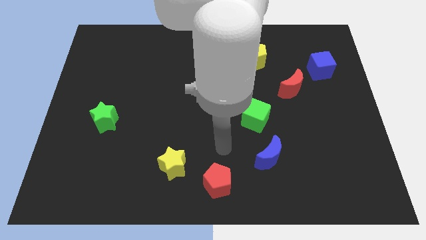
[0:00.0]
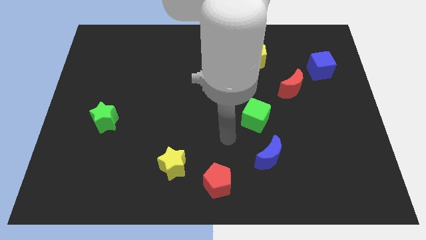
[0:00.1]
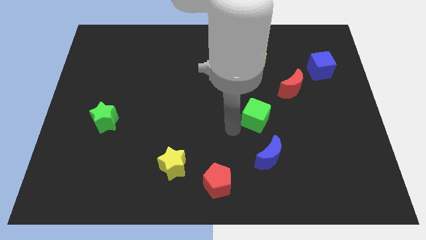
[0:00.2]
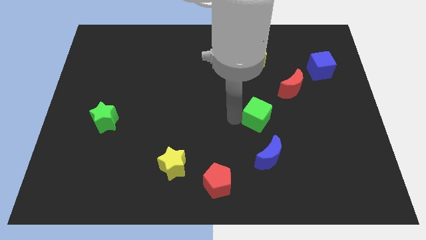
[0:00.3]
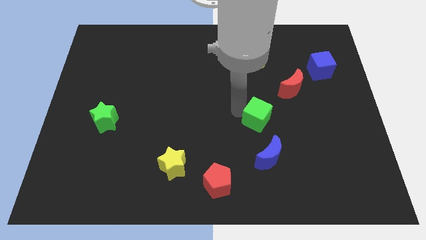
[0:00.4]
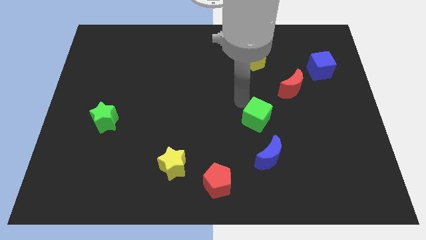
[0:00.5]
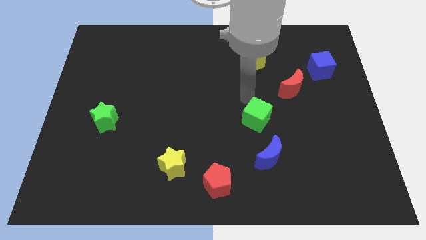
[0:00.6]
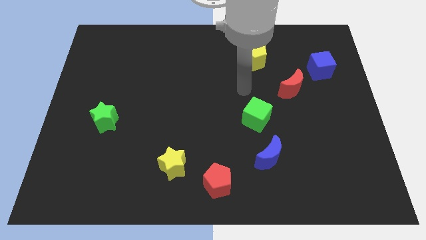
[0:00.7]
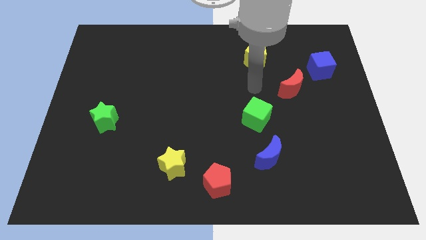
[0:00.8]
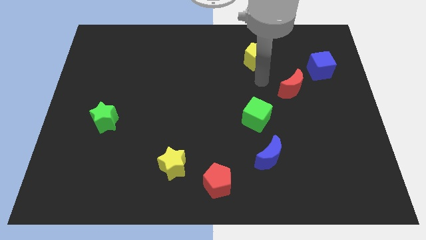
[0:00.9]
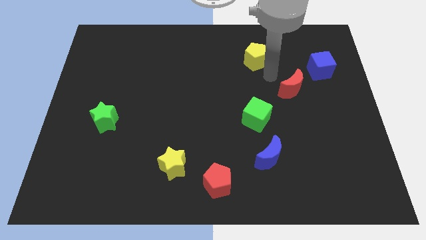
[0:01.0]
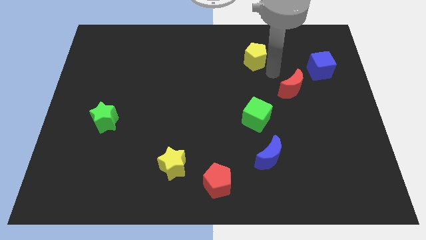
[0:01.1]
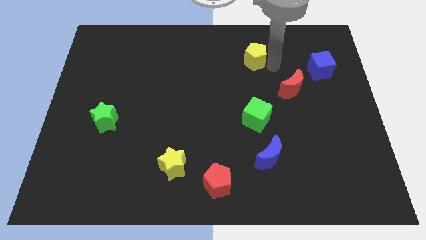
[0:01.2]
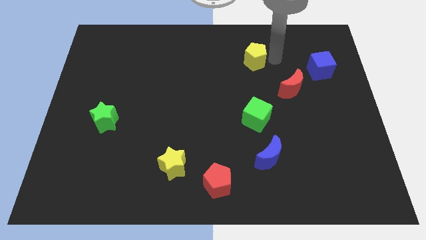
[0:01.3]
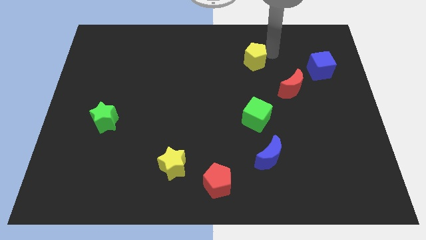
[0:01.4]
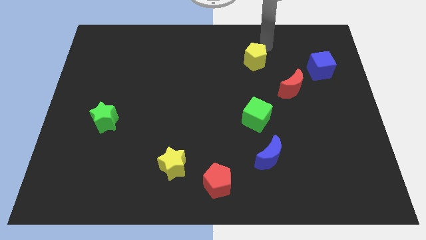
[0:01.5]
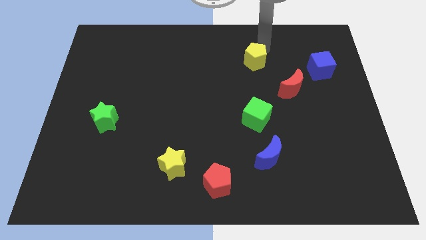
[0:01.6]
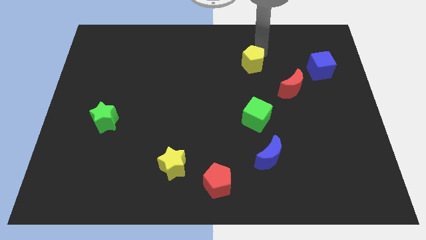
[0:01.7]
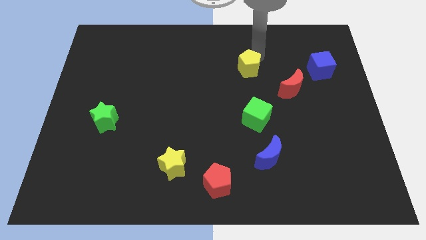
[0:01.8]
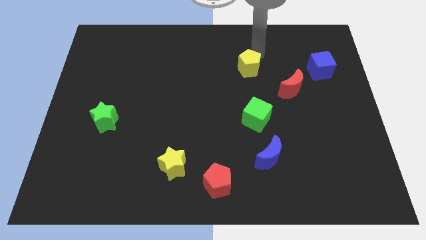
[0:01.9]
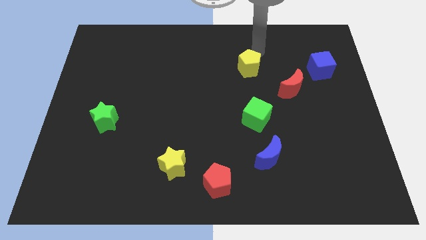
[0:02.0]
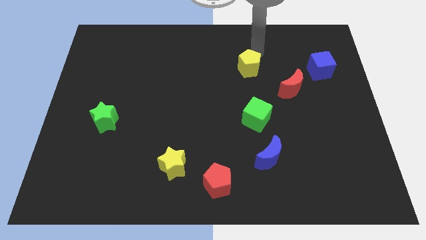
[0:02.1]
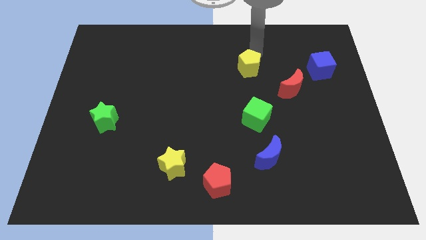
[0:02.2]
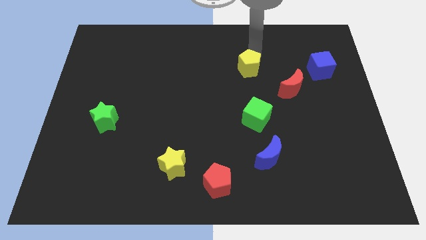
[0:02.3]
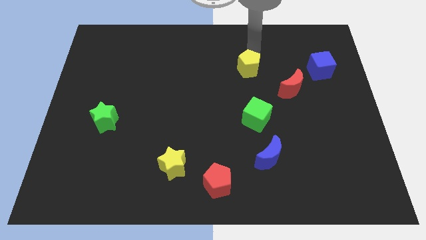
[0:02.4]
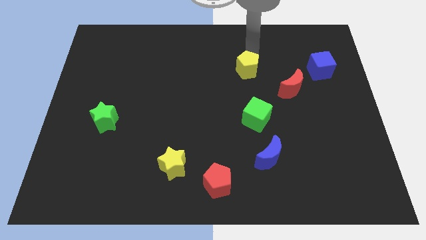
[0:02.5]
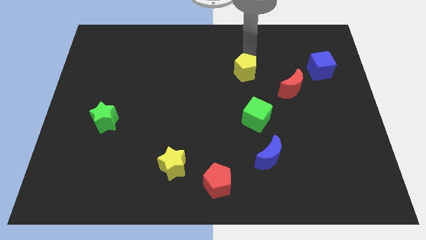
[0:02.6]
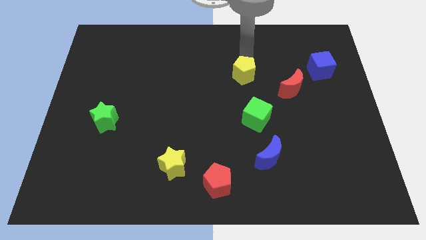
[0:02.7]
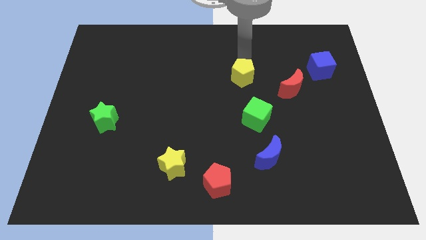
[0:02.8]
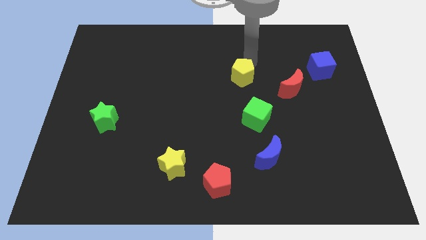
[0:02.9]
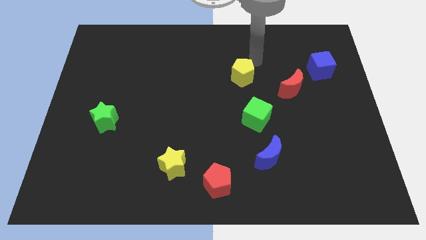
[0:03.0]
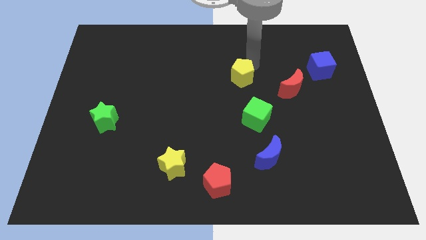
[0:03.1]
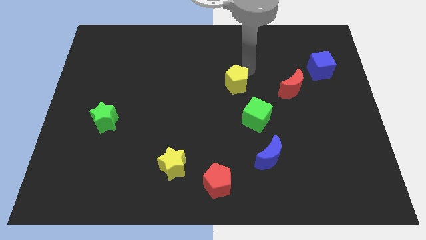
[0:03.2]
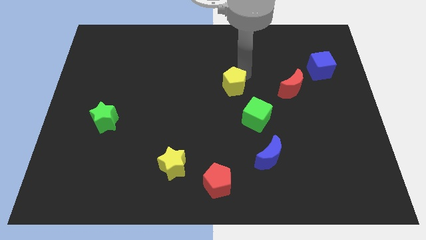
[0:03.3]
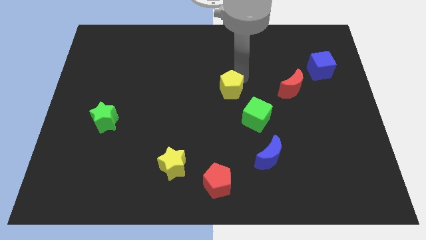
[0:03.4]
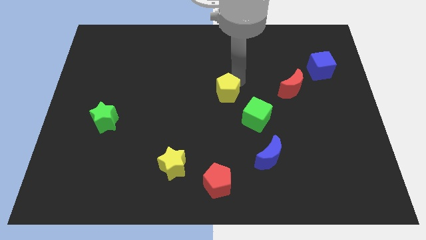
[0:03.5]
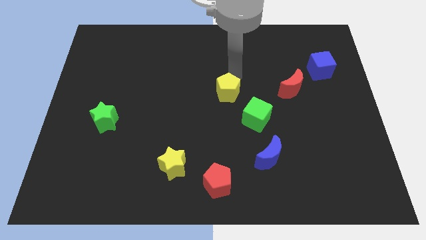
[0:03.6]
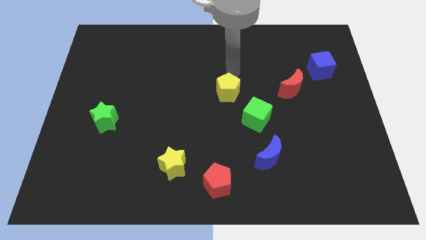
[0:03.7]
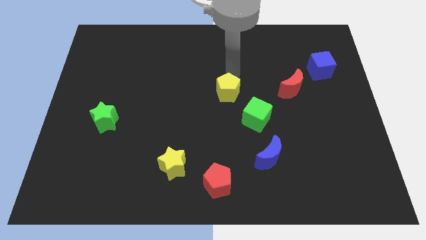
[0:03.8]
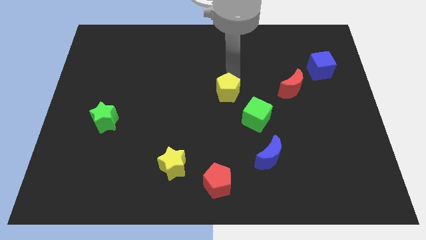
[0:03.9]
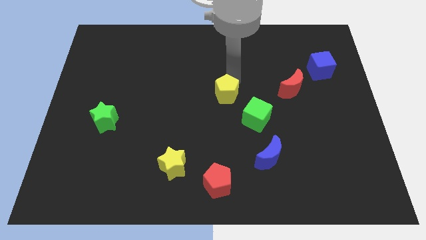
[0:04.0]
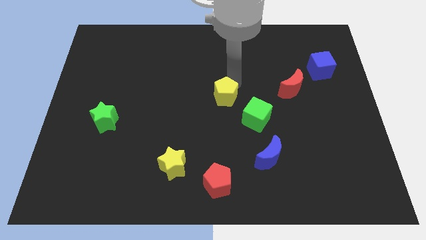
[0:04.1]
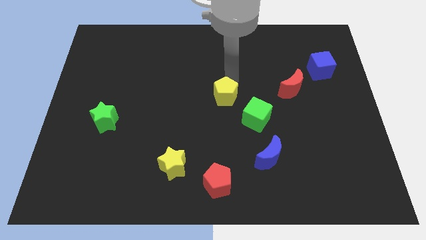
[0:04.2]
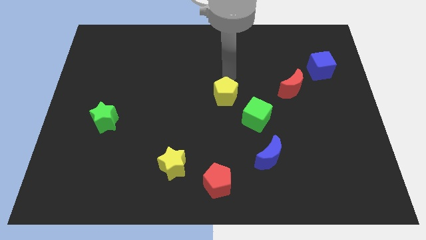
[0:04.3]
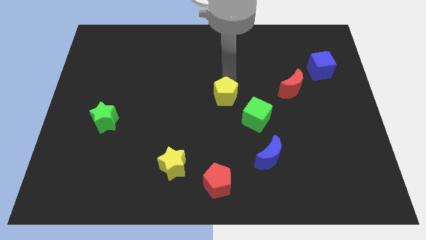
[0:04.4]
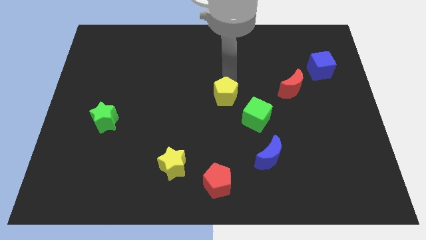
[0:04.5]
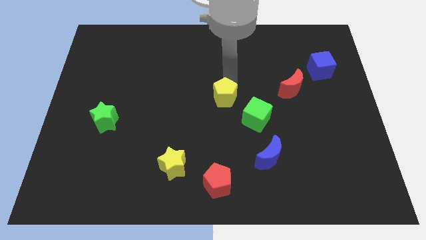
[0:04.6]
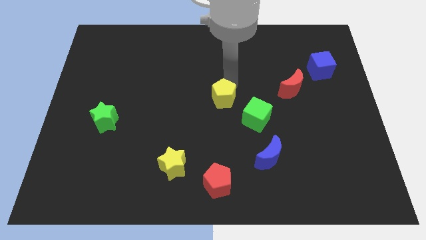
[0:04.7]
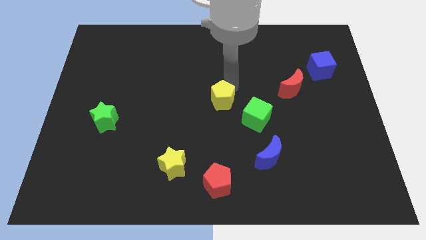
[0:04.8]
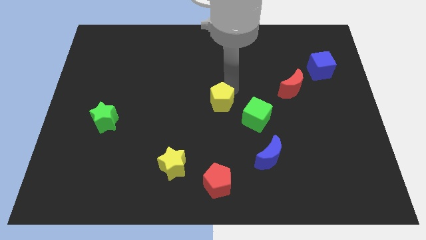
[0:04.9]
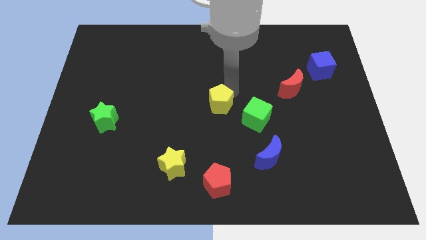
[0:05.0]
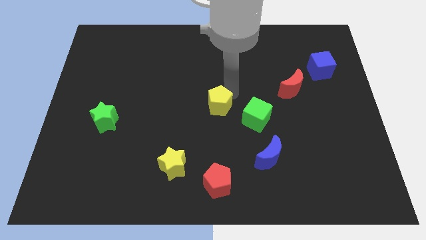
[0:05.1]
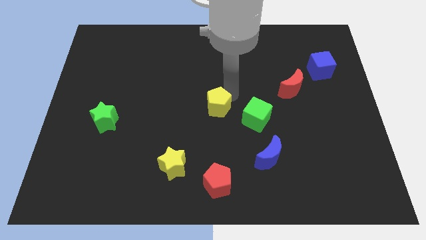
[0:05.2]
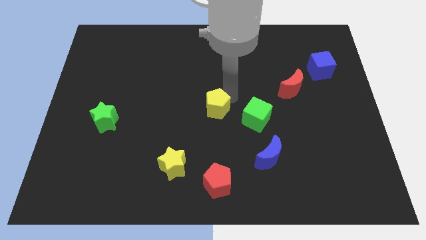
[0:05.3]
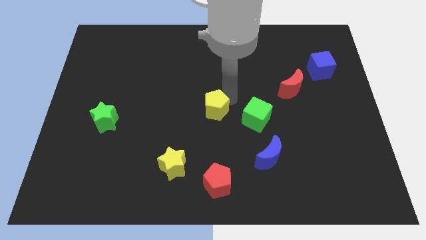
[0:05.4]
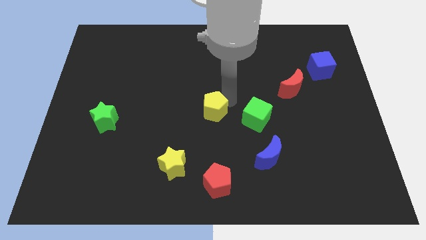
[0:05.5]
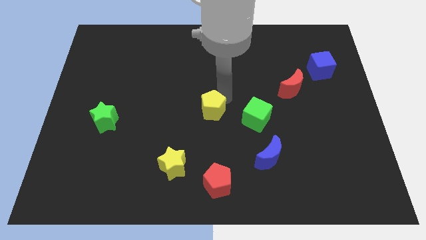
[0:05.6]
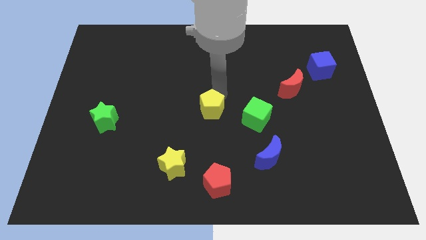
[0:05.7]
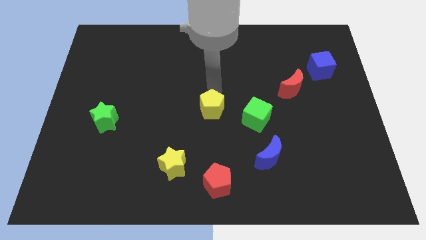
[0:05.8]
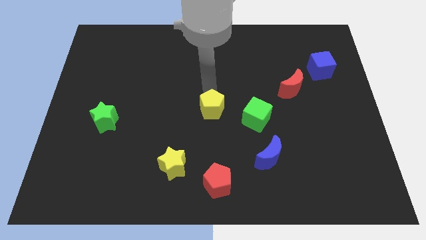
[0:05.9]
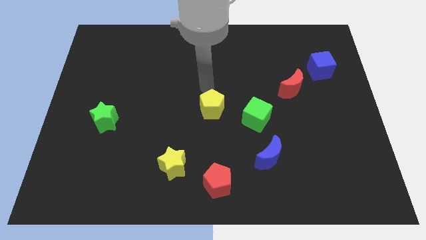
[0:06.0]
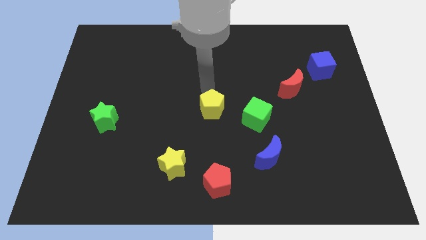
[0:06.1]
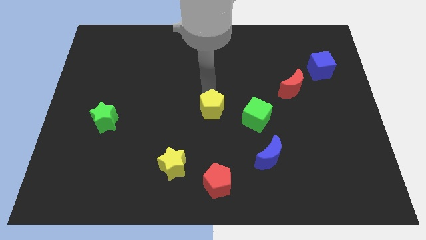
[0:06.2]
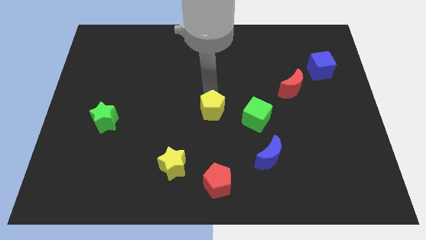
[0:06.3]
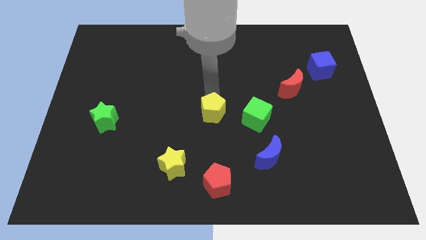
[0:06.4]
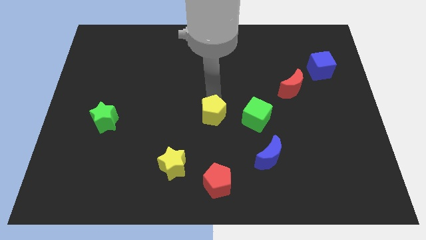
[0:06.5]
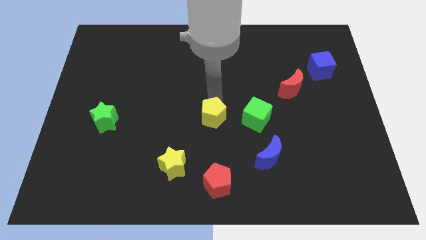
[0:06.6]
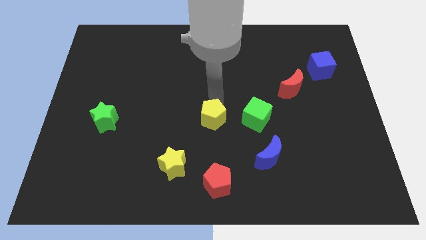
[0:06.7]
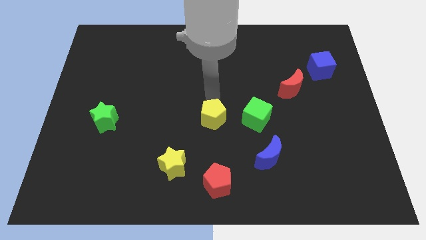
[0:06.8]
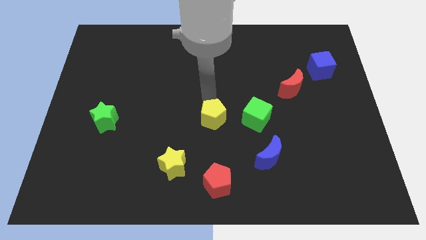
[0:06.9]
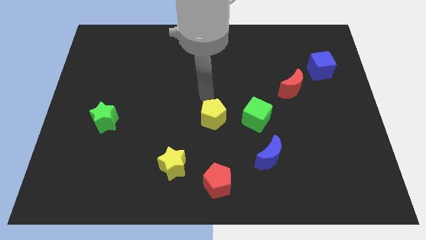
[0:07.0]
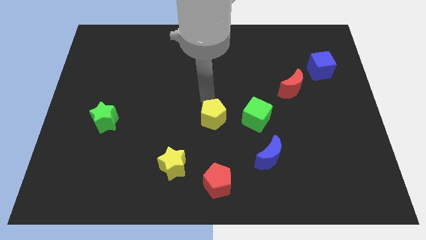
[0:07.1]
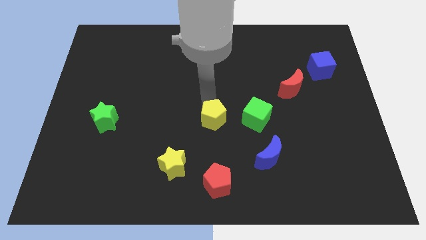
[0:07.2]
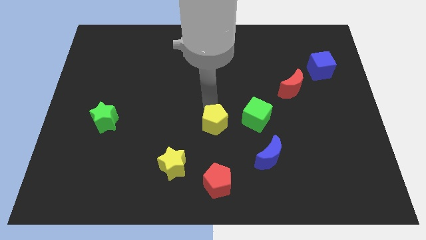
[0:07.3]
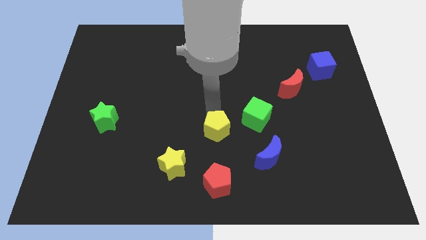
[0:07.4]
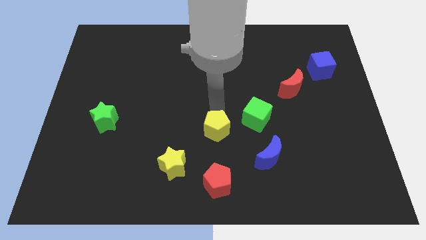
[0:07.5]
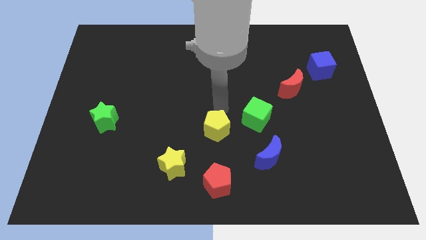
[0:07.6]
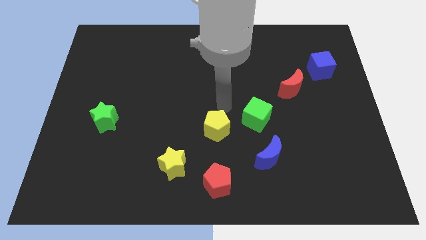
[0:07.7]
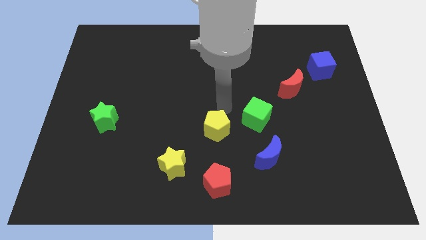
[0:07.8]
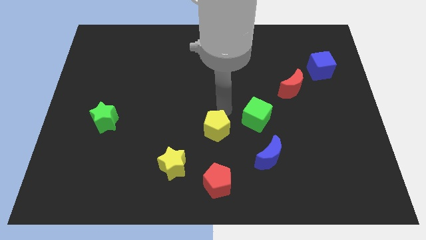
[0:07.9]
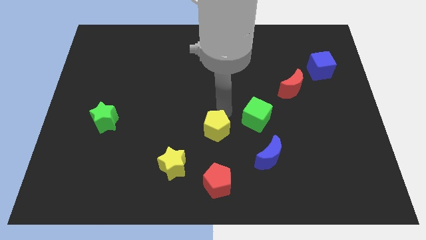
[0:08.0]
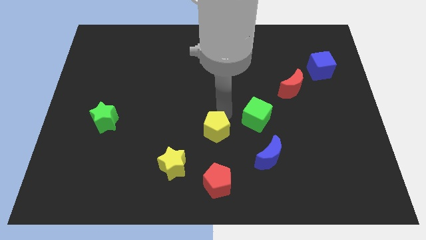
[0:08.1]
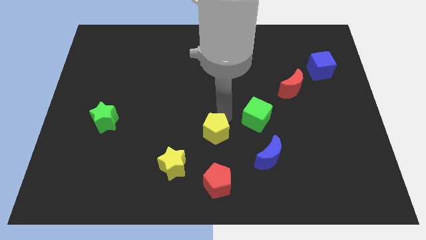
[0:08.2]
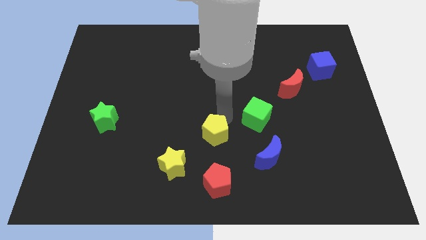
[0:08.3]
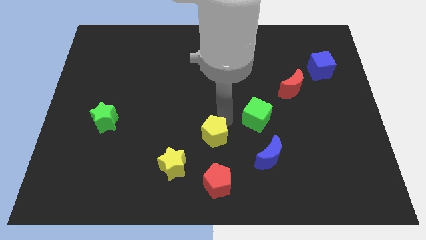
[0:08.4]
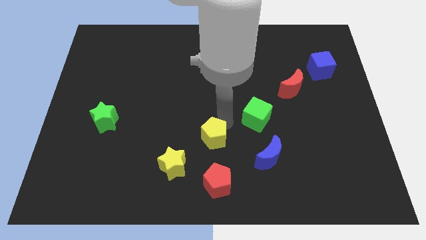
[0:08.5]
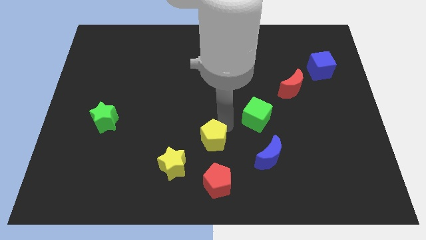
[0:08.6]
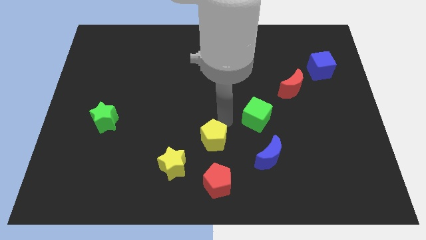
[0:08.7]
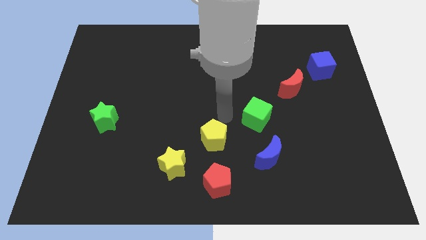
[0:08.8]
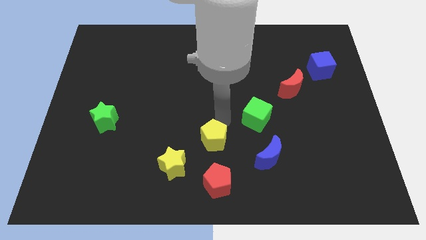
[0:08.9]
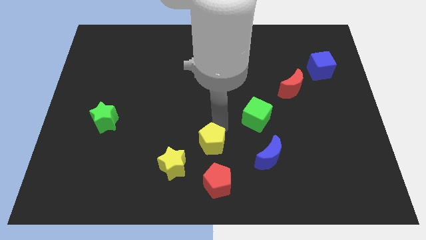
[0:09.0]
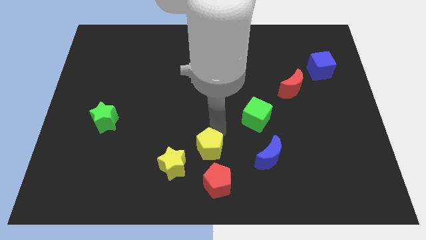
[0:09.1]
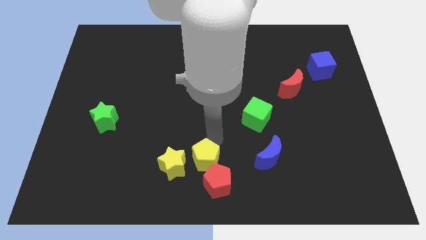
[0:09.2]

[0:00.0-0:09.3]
move the yellow pentagon to the bottom
